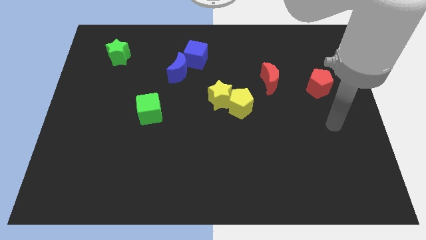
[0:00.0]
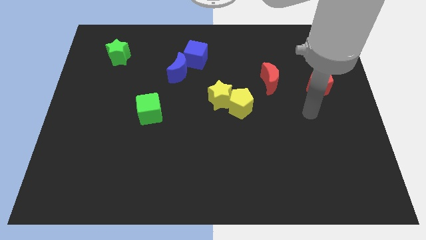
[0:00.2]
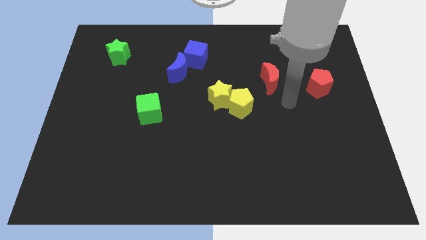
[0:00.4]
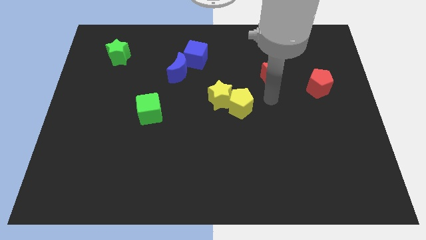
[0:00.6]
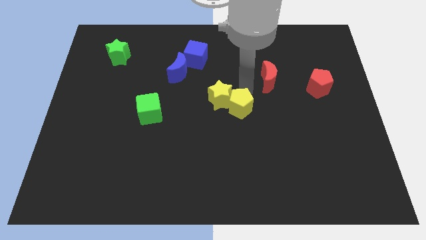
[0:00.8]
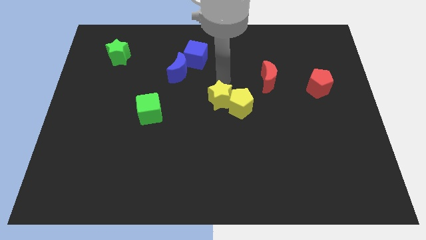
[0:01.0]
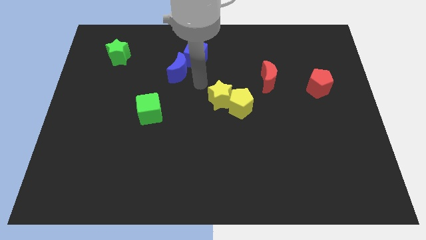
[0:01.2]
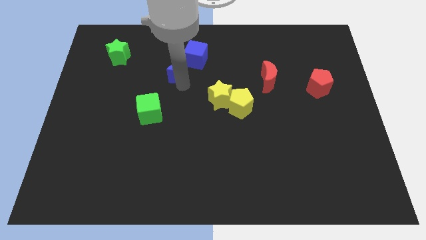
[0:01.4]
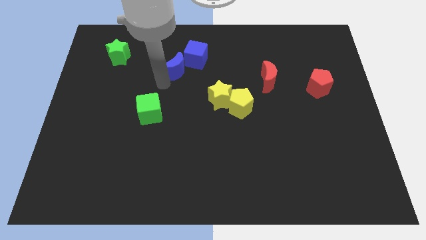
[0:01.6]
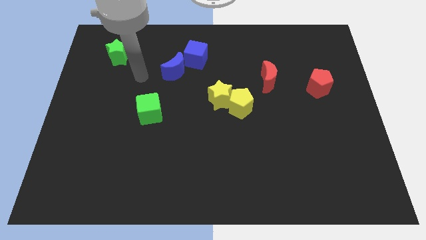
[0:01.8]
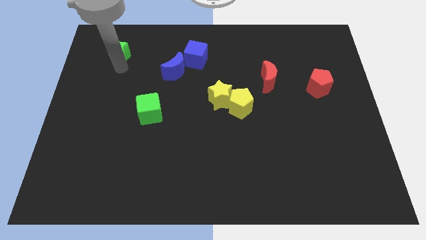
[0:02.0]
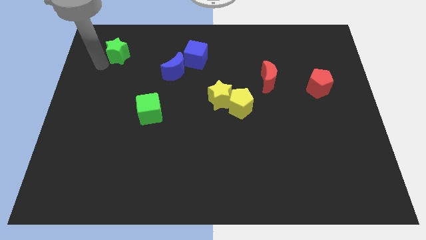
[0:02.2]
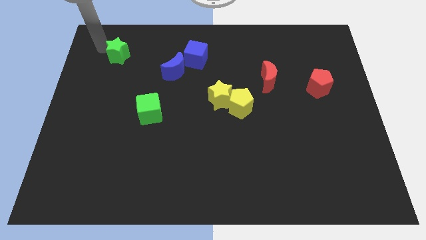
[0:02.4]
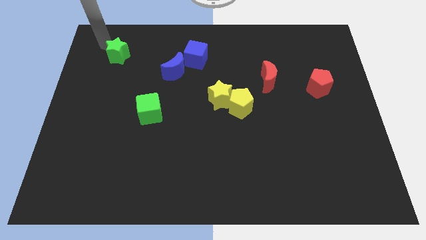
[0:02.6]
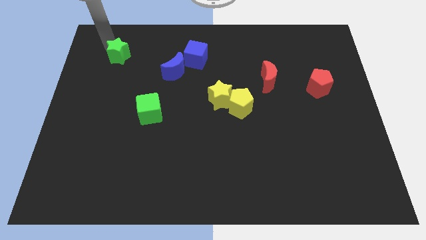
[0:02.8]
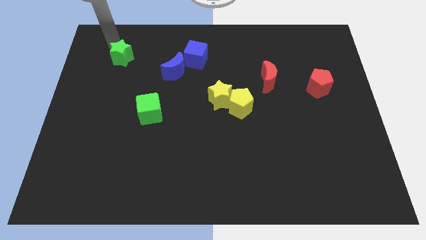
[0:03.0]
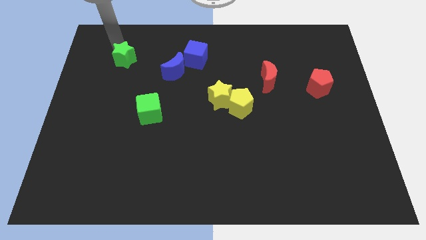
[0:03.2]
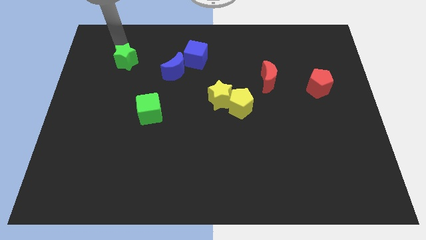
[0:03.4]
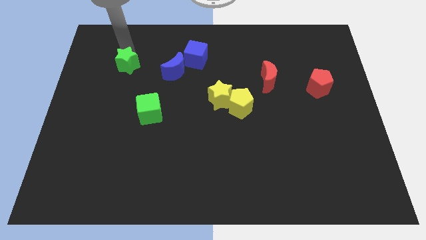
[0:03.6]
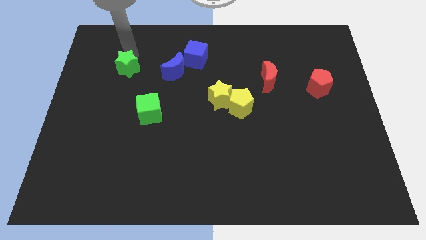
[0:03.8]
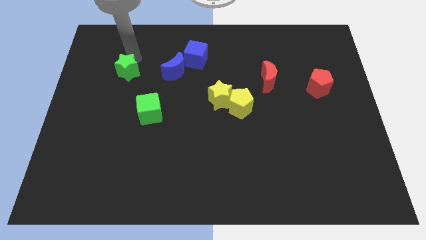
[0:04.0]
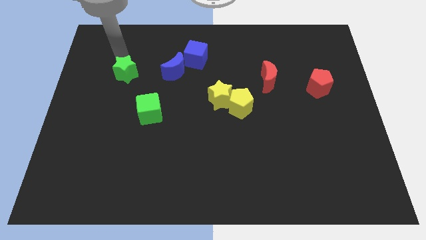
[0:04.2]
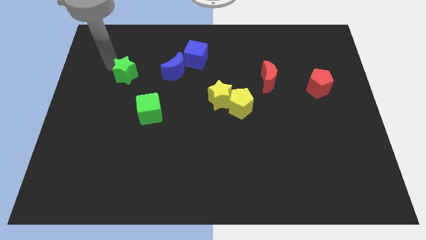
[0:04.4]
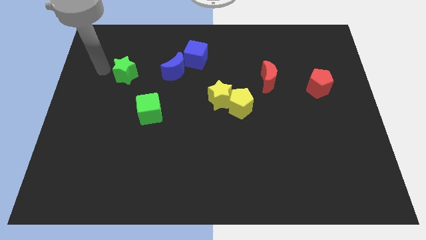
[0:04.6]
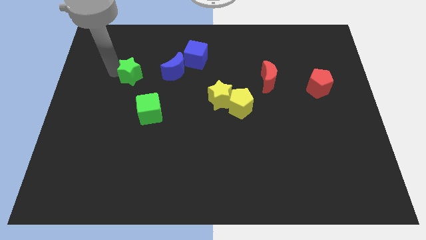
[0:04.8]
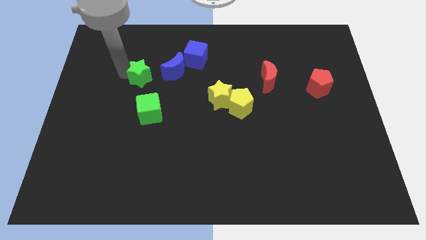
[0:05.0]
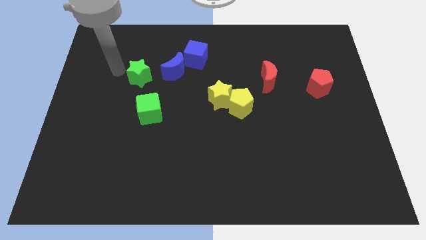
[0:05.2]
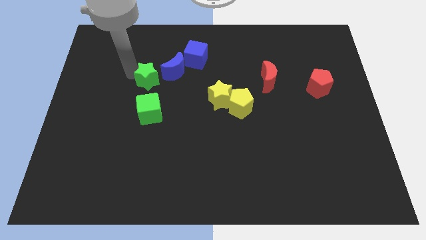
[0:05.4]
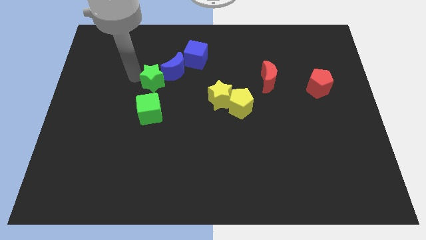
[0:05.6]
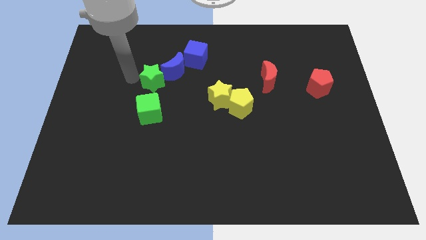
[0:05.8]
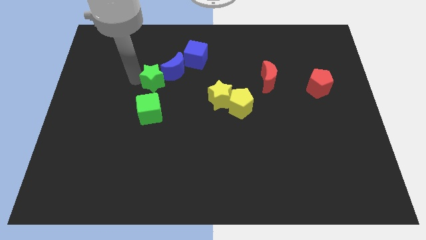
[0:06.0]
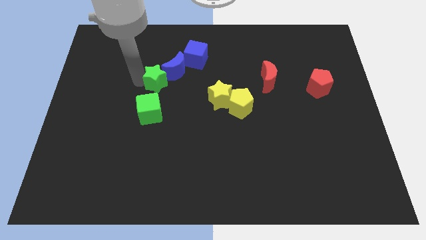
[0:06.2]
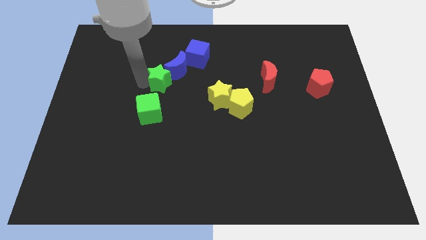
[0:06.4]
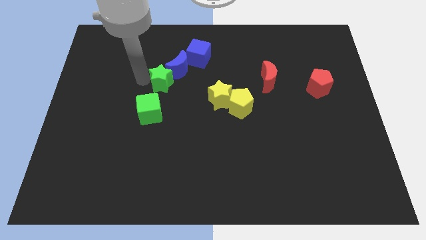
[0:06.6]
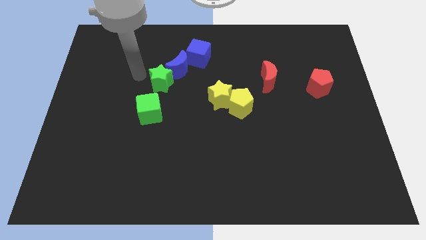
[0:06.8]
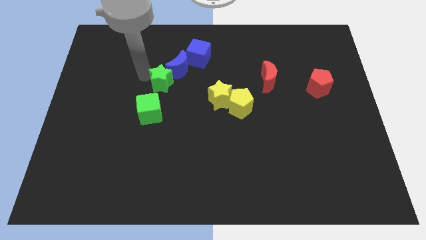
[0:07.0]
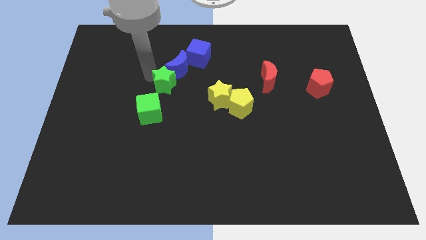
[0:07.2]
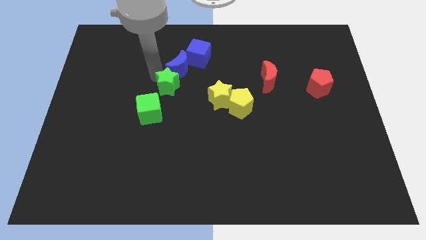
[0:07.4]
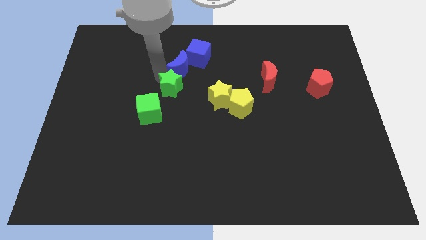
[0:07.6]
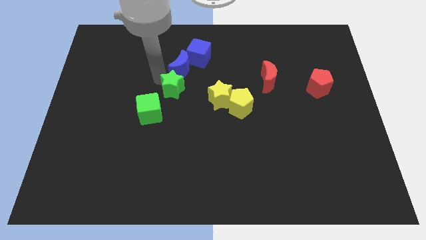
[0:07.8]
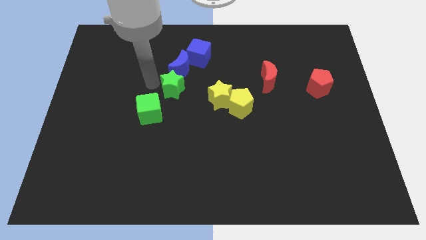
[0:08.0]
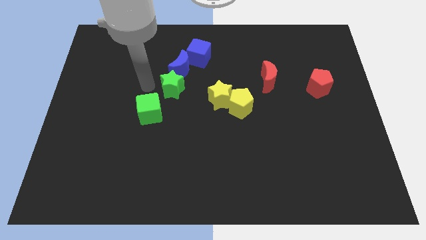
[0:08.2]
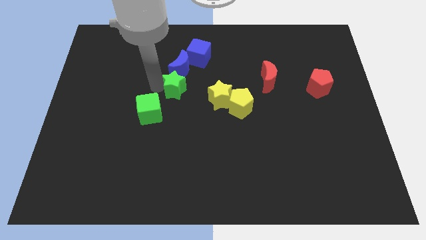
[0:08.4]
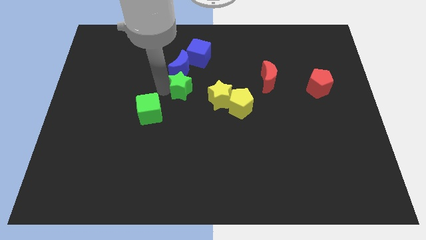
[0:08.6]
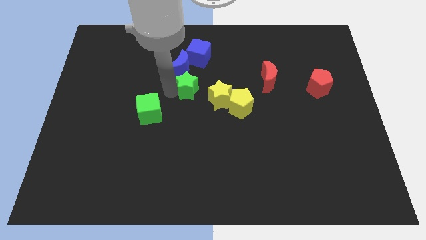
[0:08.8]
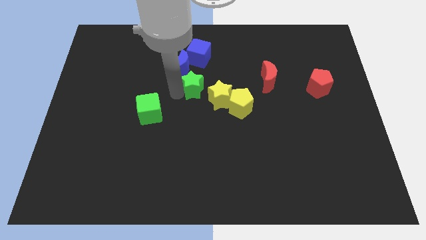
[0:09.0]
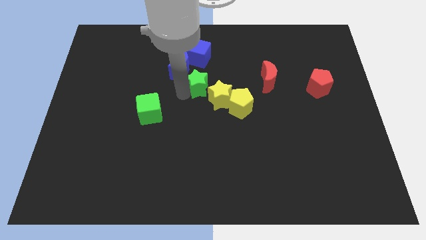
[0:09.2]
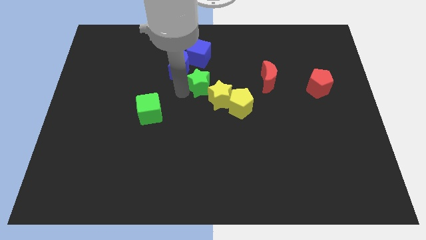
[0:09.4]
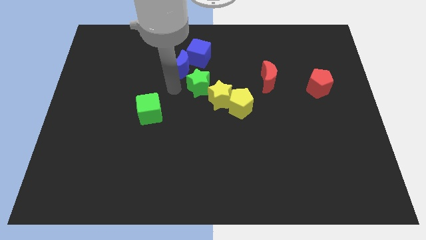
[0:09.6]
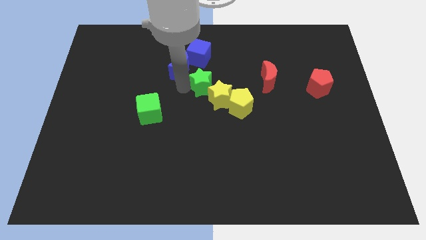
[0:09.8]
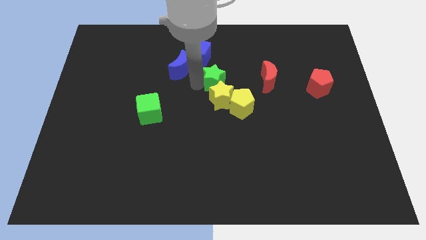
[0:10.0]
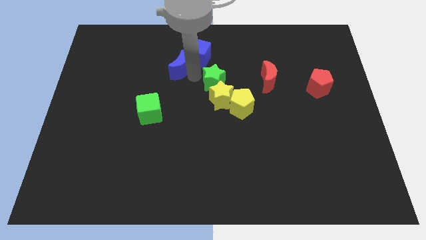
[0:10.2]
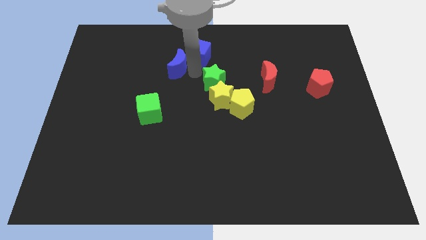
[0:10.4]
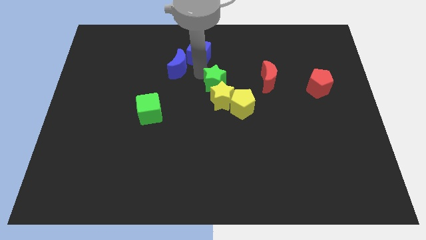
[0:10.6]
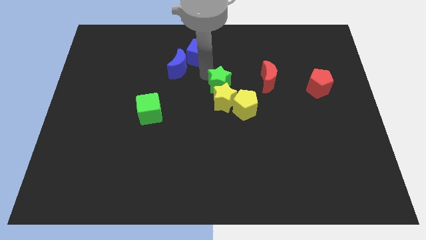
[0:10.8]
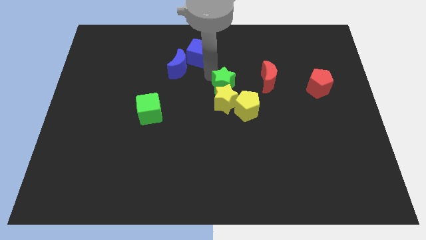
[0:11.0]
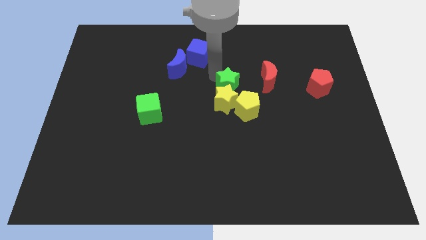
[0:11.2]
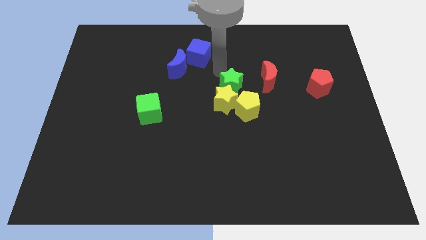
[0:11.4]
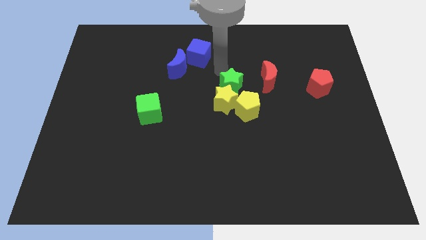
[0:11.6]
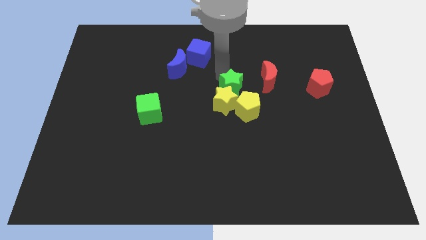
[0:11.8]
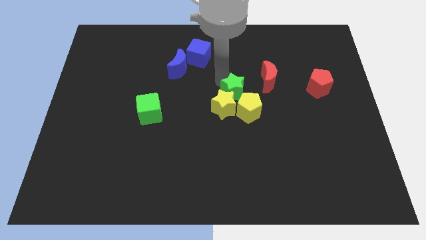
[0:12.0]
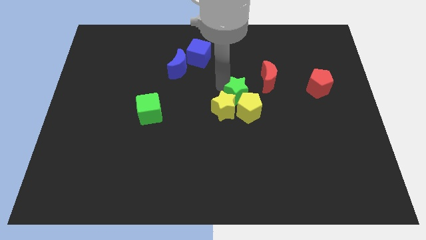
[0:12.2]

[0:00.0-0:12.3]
move the green star to the yellow pentagon
